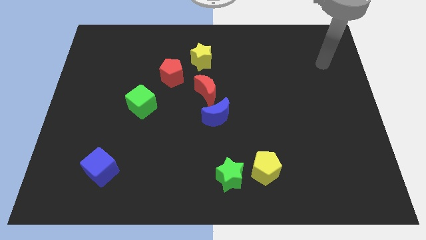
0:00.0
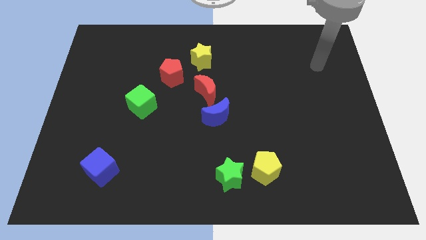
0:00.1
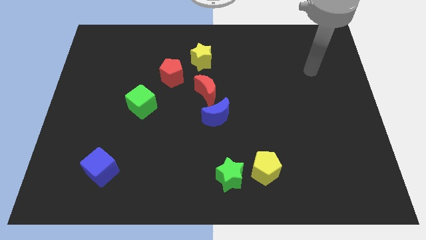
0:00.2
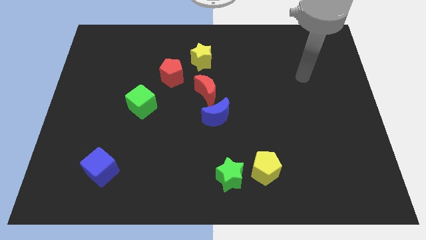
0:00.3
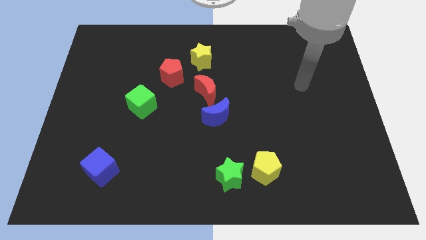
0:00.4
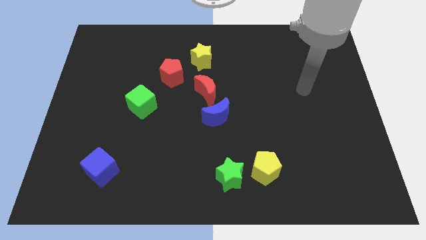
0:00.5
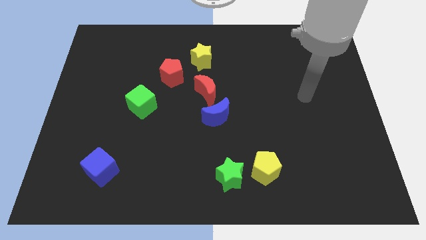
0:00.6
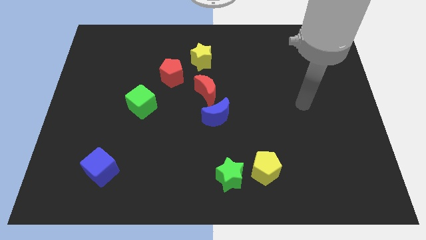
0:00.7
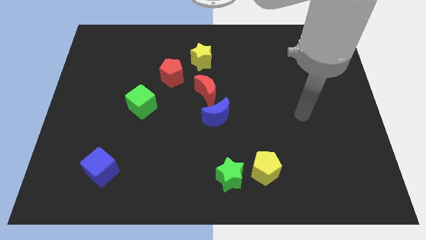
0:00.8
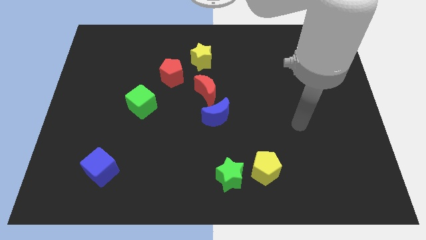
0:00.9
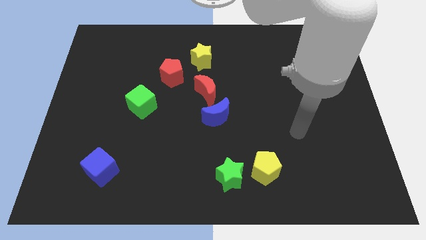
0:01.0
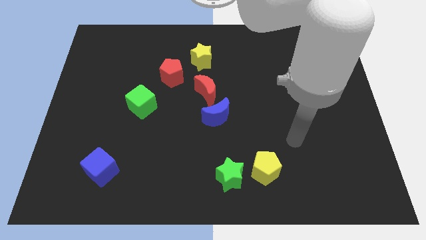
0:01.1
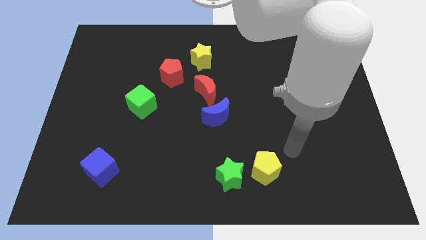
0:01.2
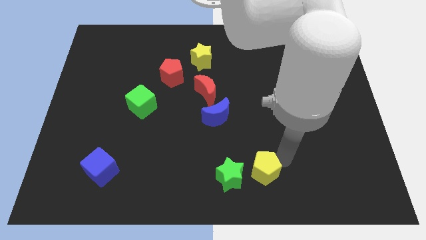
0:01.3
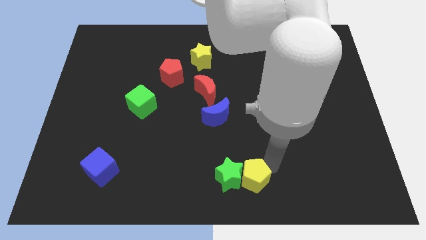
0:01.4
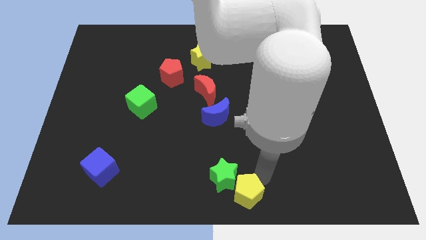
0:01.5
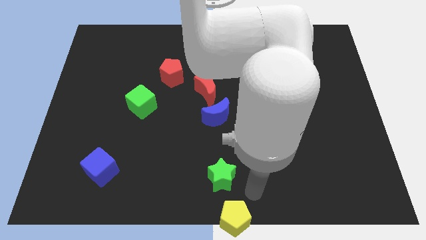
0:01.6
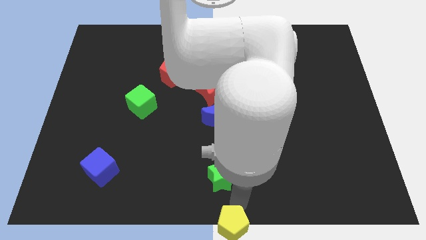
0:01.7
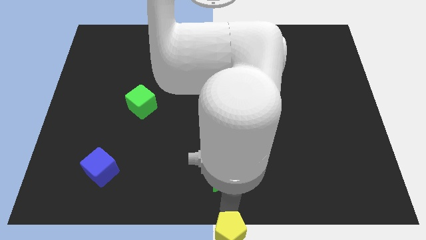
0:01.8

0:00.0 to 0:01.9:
separate the green star from the yellow pentagon

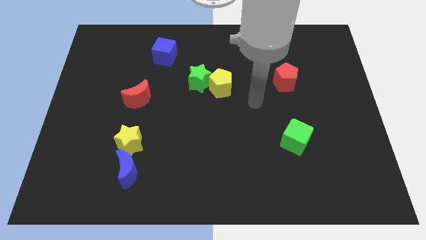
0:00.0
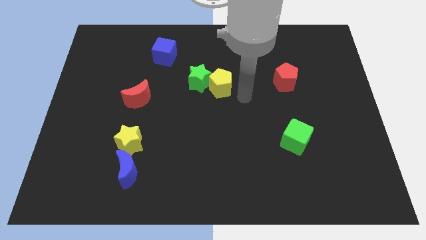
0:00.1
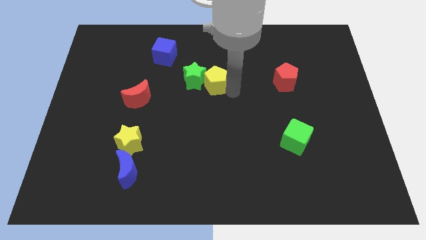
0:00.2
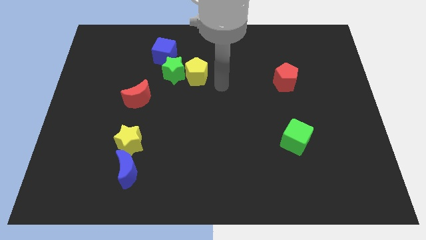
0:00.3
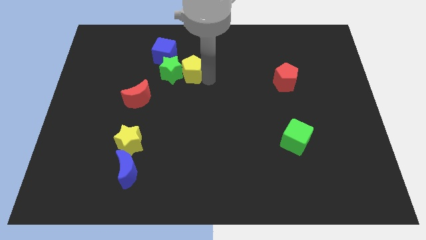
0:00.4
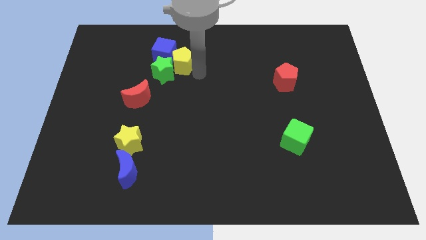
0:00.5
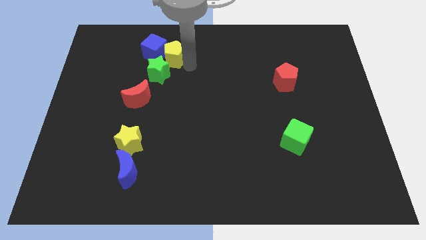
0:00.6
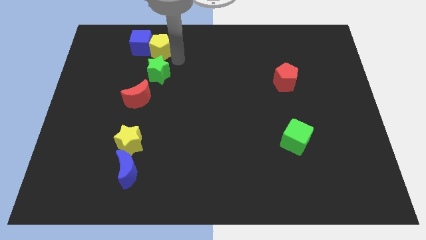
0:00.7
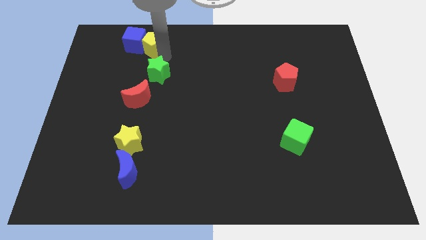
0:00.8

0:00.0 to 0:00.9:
pull the green star apart from the yellow pentagon

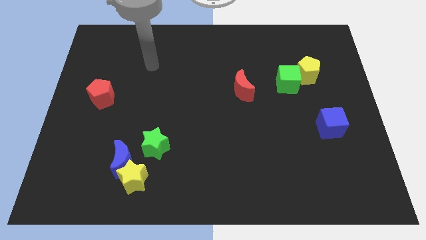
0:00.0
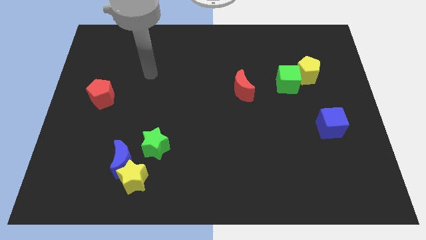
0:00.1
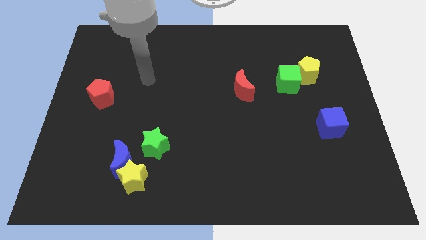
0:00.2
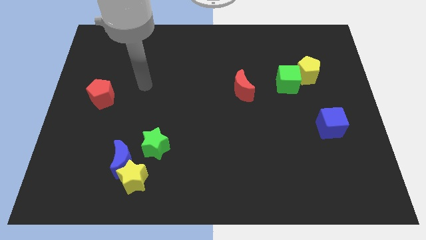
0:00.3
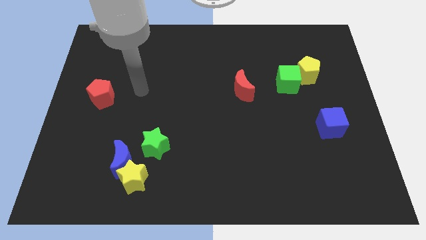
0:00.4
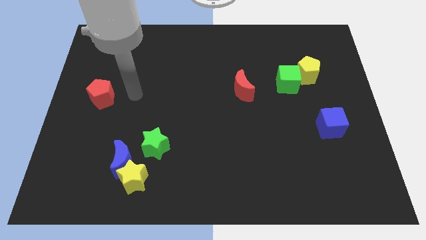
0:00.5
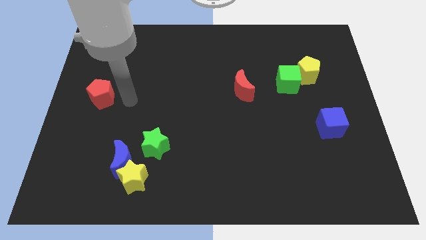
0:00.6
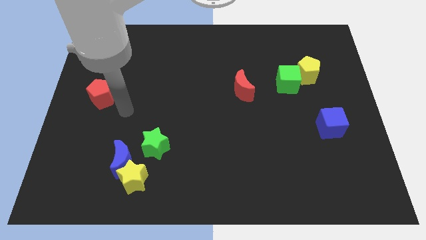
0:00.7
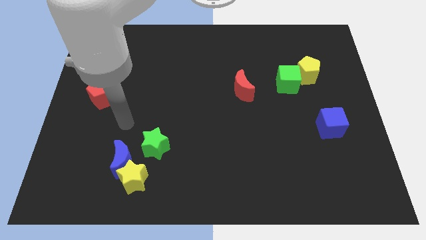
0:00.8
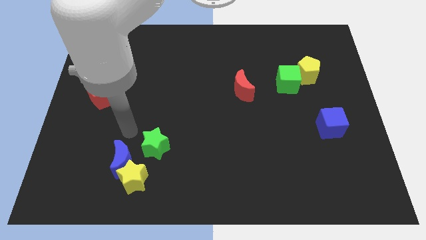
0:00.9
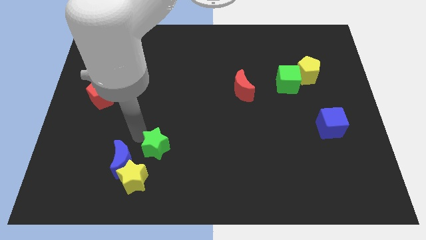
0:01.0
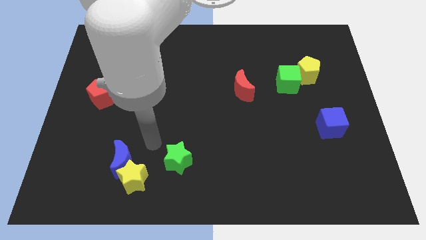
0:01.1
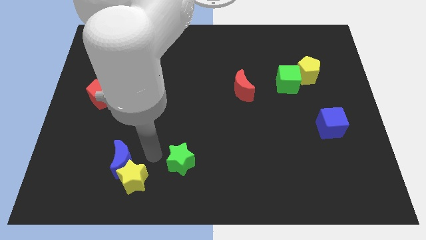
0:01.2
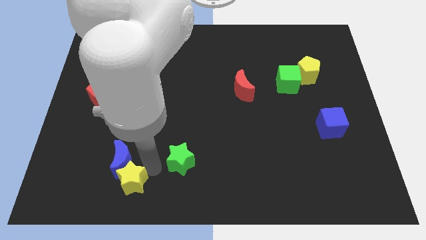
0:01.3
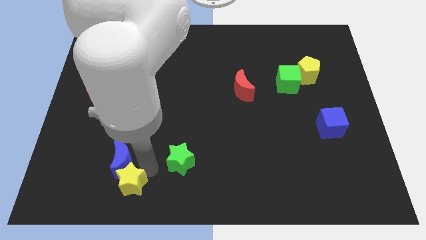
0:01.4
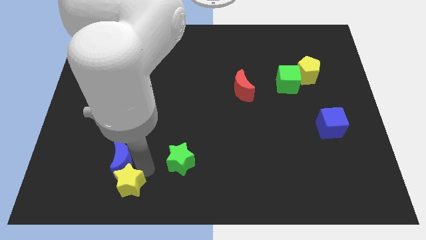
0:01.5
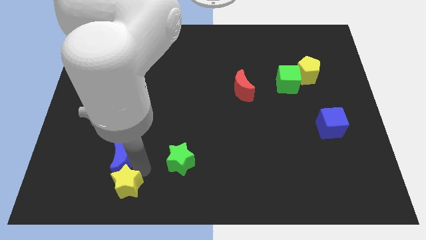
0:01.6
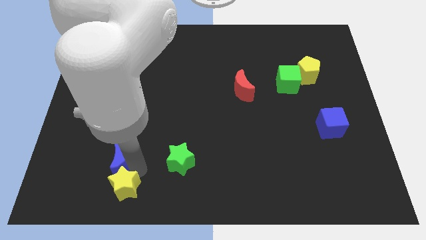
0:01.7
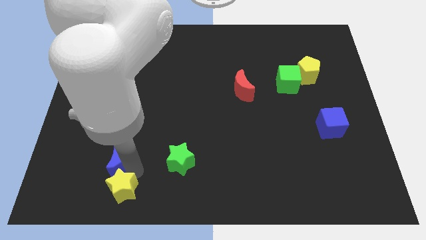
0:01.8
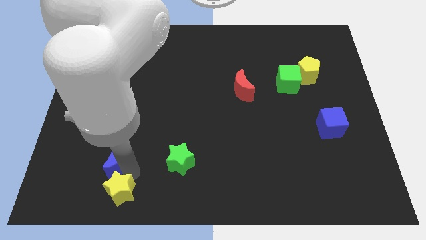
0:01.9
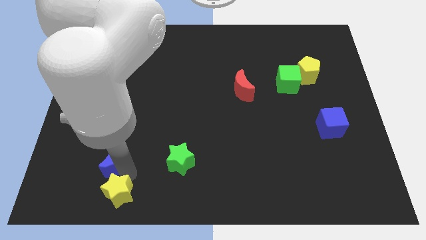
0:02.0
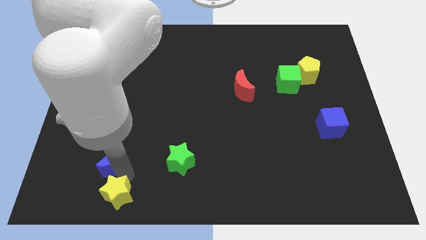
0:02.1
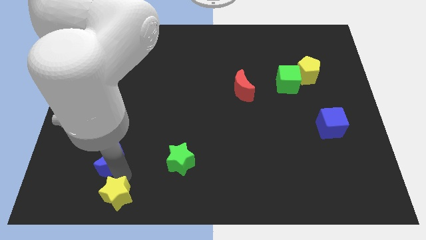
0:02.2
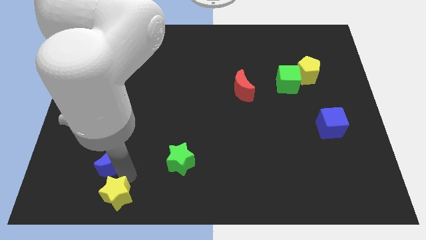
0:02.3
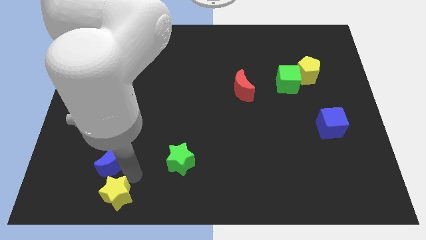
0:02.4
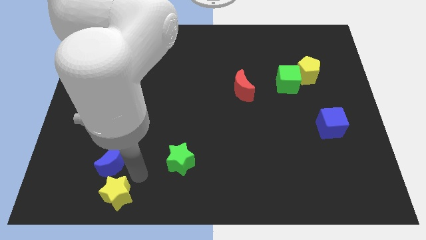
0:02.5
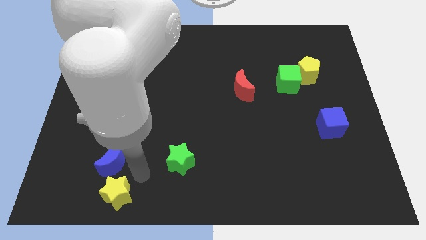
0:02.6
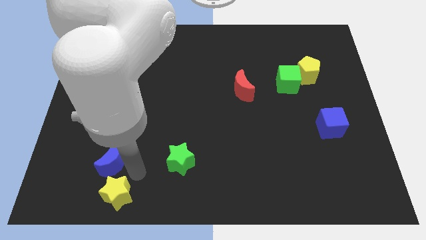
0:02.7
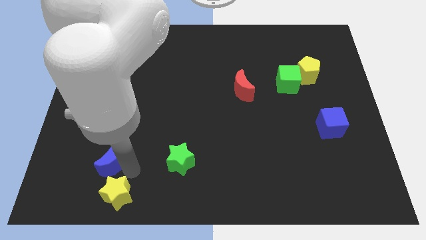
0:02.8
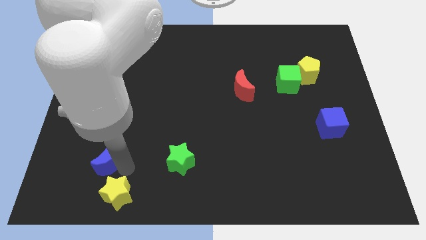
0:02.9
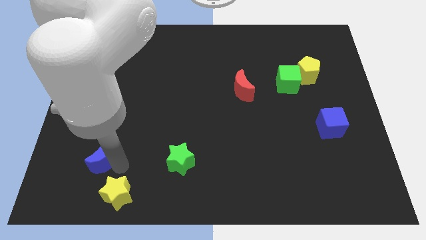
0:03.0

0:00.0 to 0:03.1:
separate the blue moon from the yellow star and green star

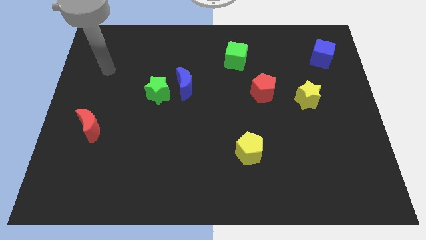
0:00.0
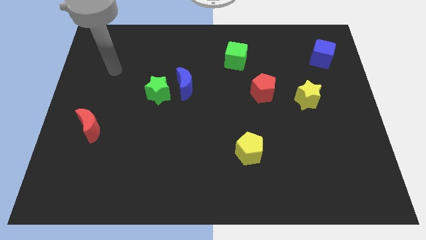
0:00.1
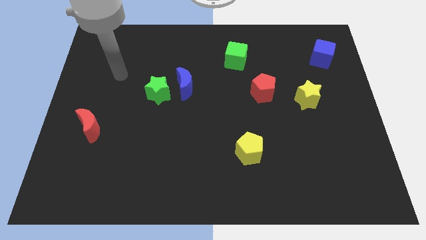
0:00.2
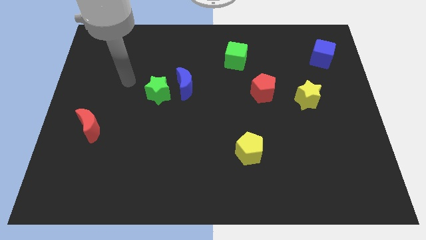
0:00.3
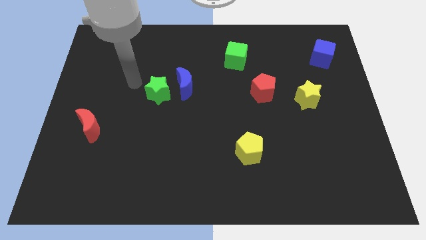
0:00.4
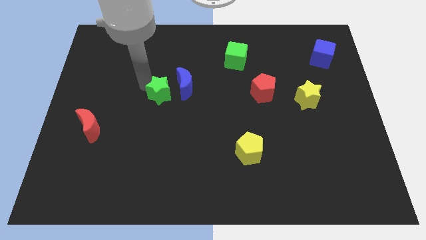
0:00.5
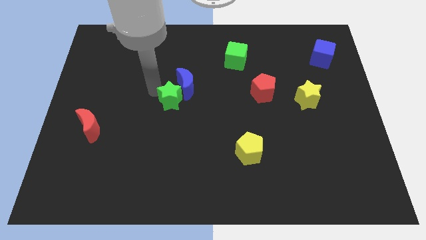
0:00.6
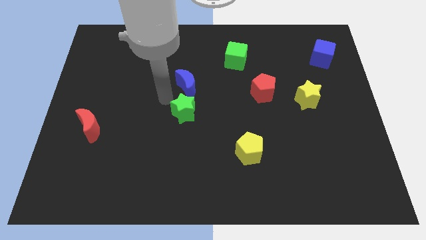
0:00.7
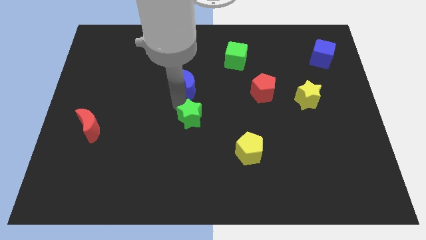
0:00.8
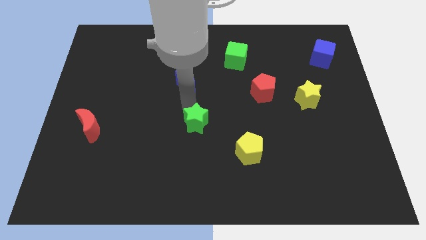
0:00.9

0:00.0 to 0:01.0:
move the blue moon away from the green star

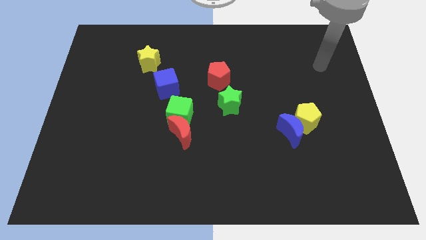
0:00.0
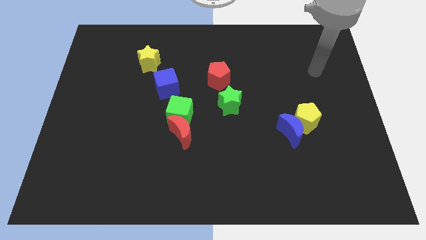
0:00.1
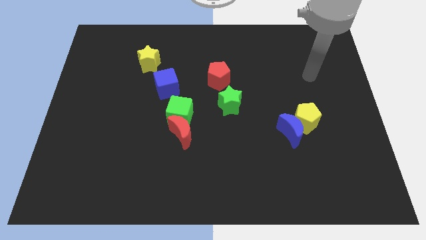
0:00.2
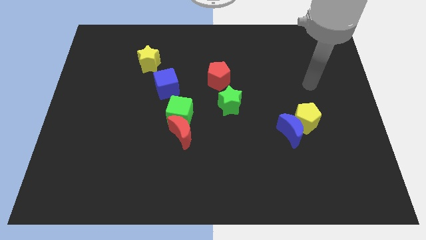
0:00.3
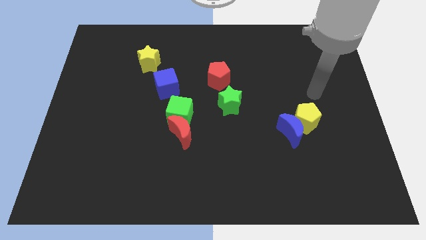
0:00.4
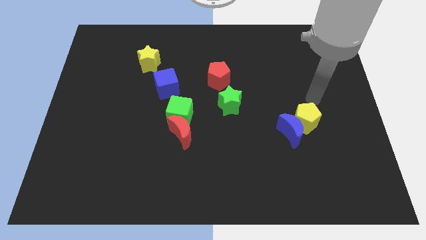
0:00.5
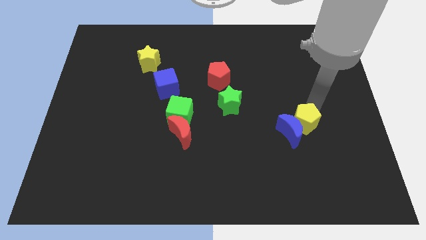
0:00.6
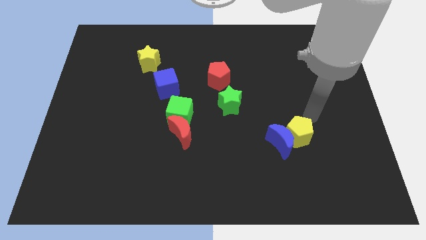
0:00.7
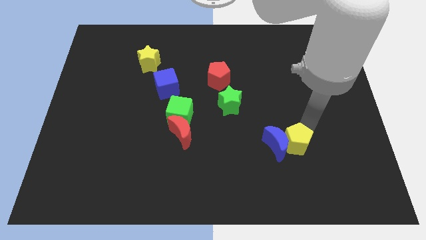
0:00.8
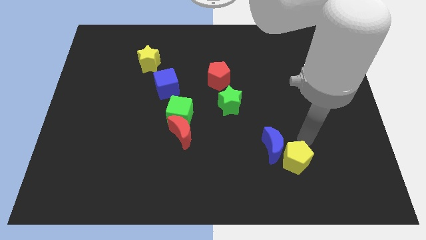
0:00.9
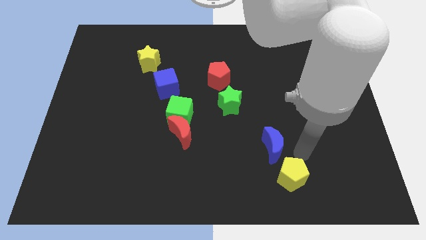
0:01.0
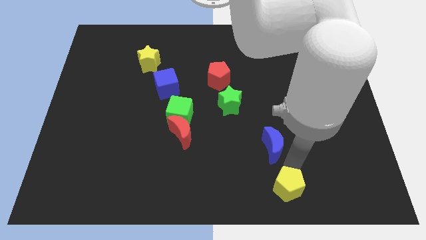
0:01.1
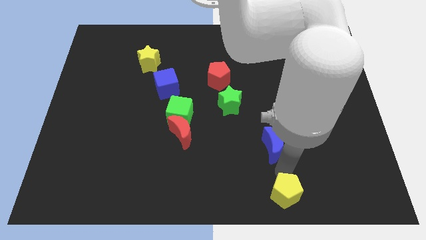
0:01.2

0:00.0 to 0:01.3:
pull the blue moon apart from the yellow pentagon

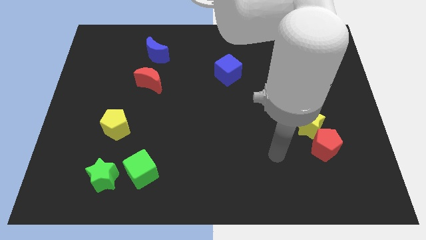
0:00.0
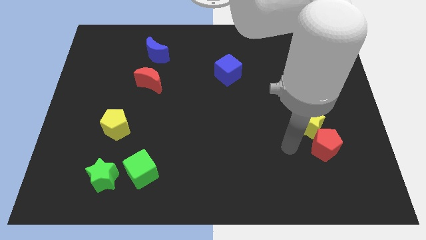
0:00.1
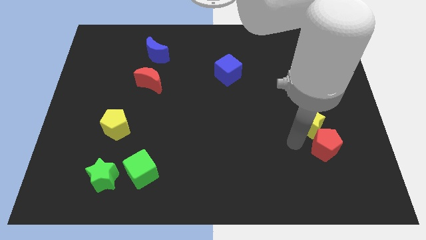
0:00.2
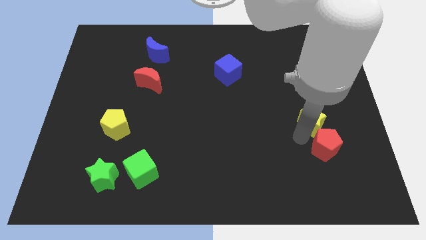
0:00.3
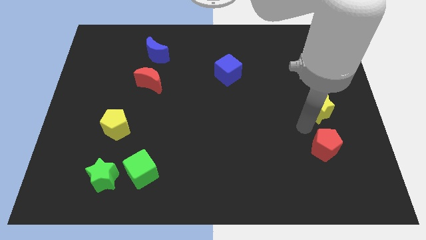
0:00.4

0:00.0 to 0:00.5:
separate the red pentagon from the yellow star

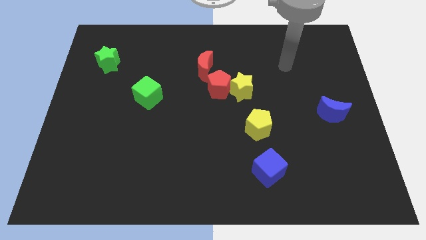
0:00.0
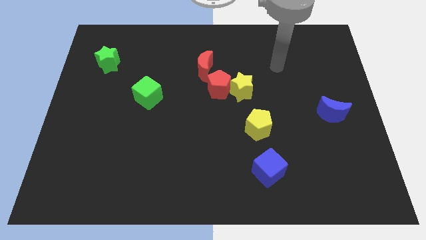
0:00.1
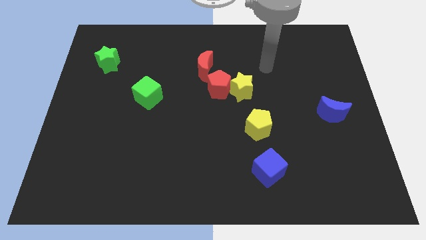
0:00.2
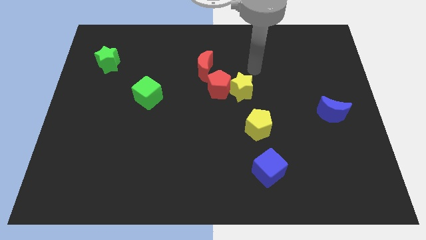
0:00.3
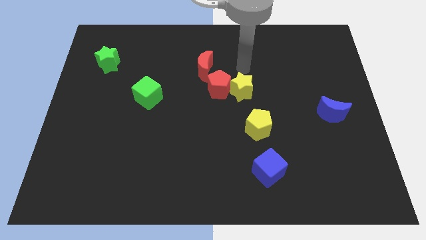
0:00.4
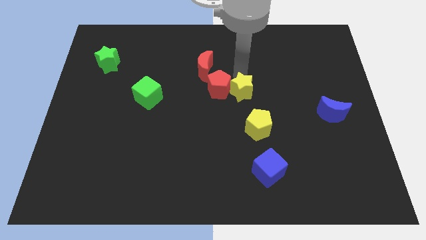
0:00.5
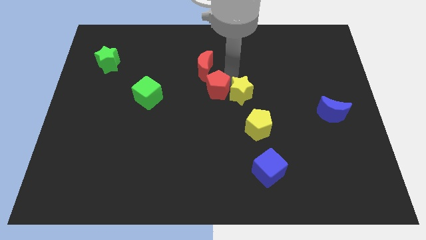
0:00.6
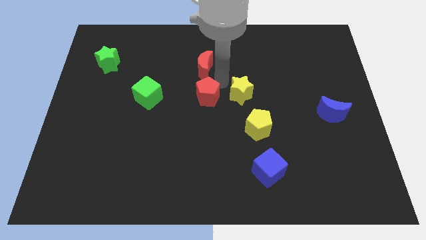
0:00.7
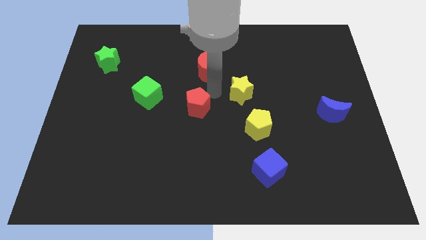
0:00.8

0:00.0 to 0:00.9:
move the yellow star away from the red pentagon
